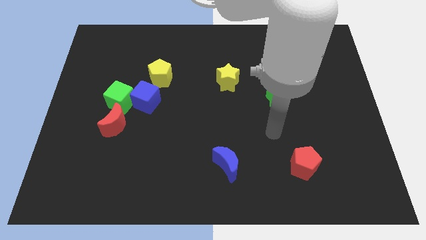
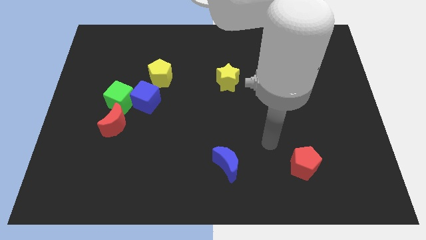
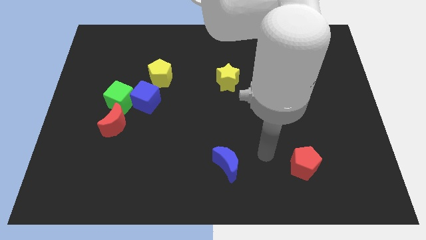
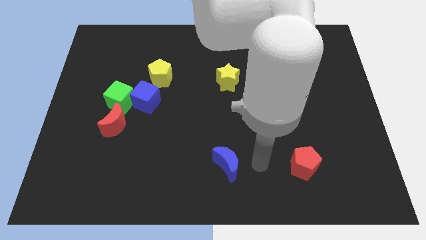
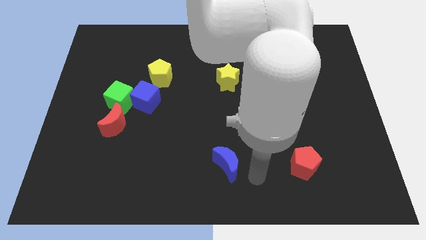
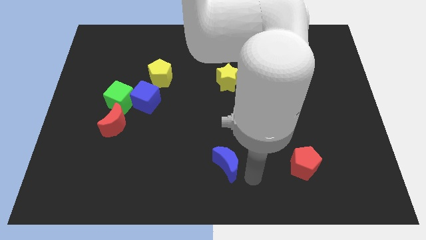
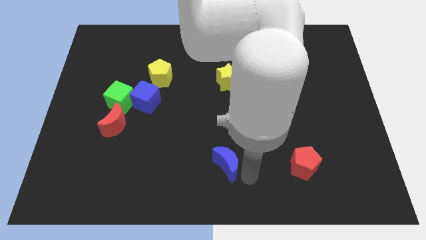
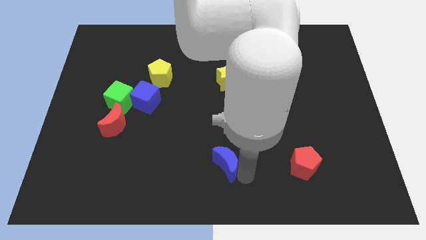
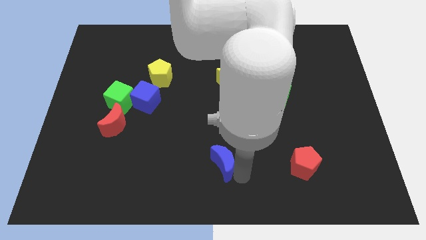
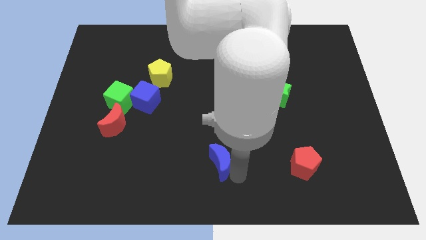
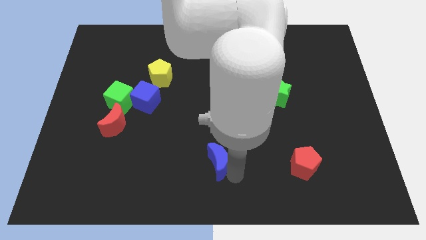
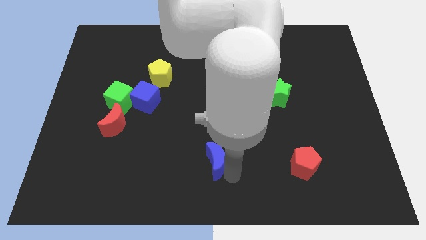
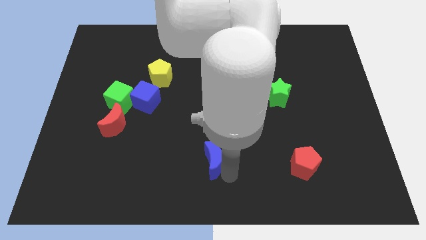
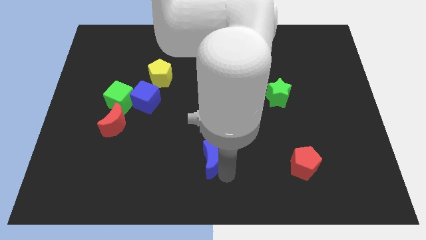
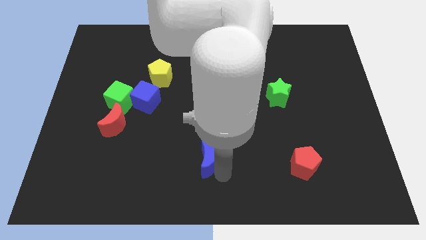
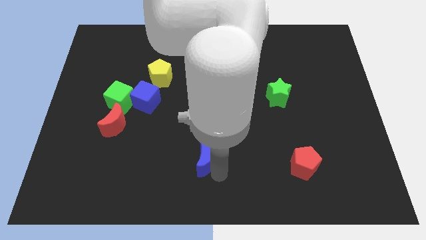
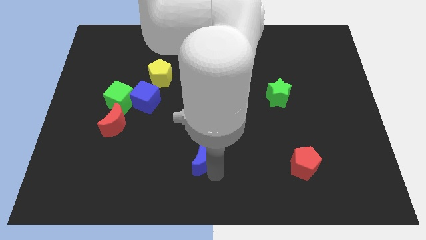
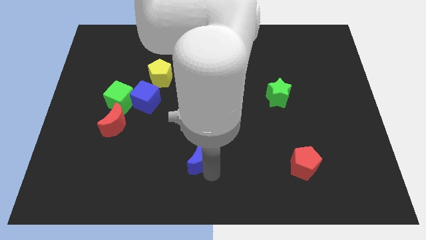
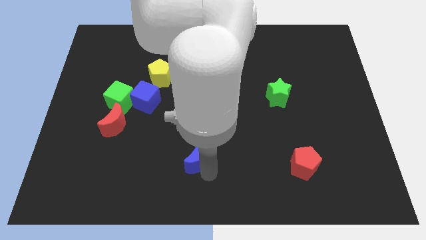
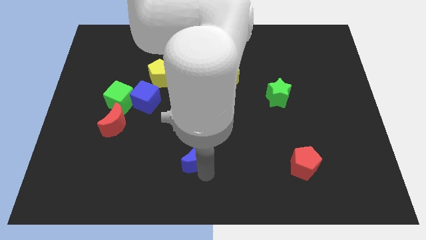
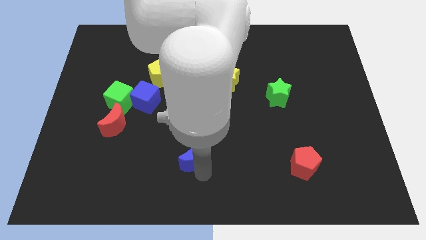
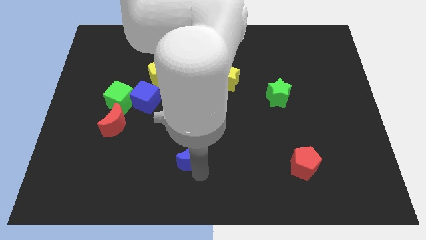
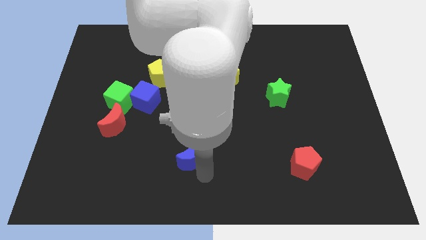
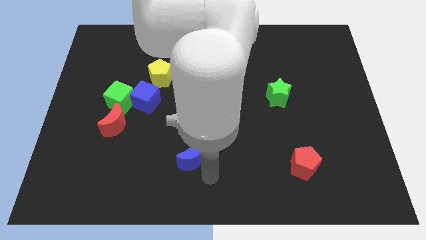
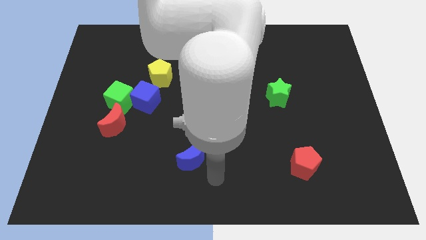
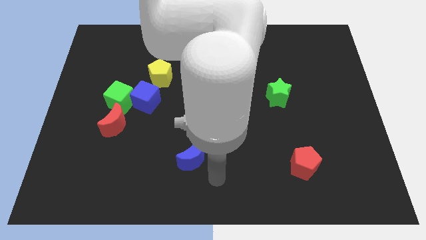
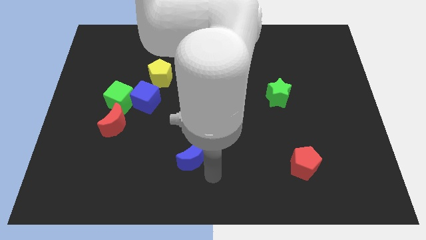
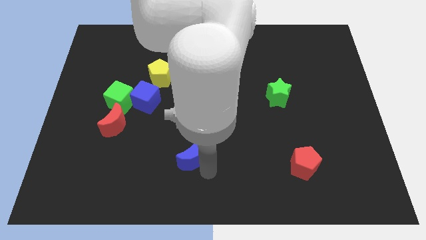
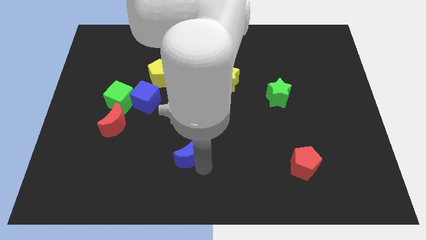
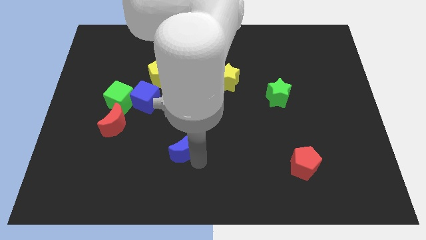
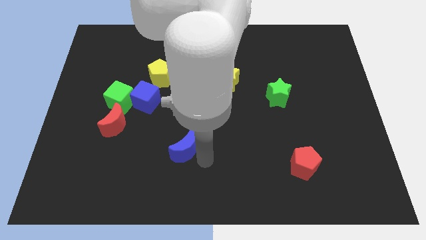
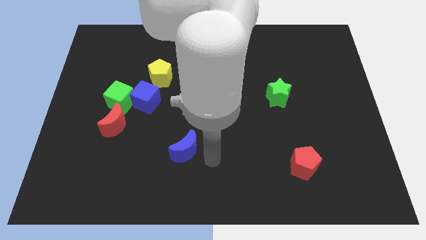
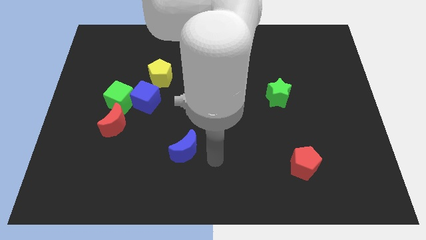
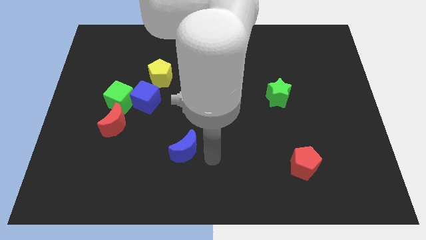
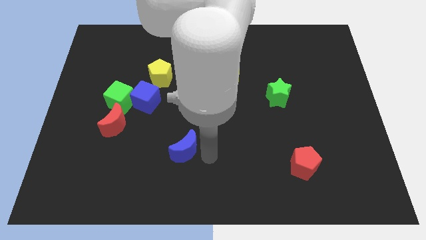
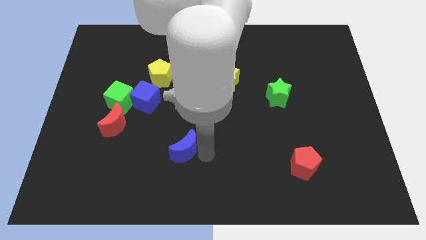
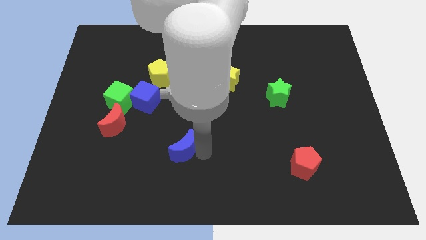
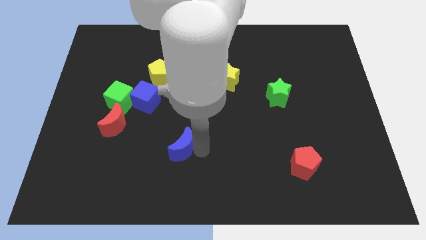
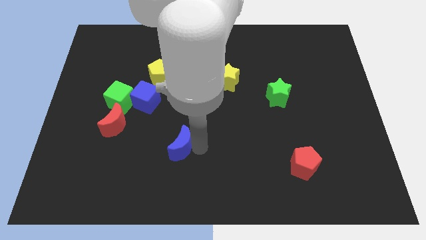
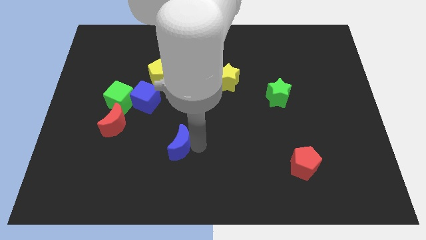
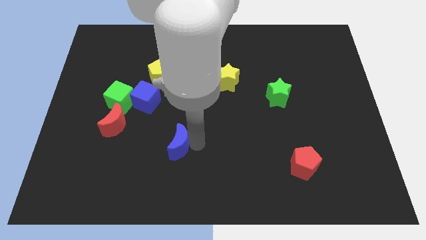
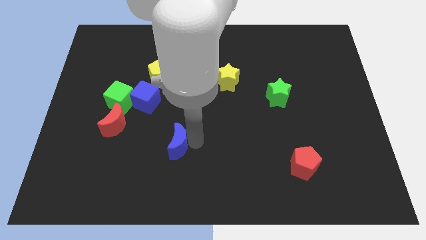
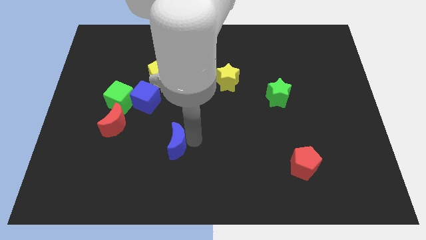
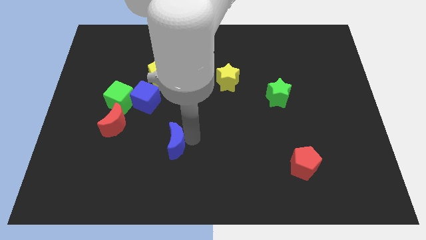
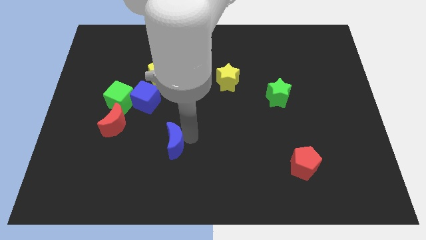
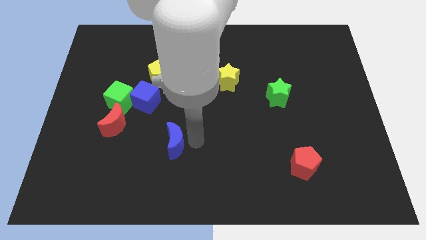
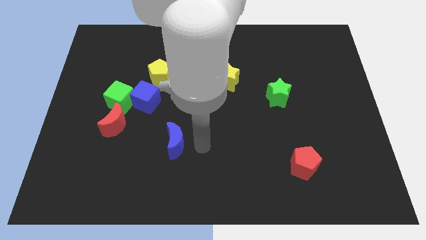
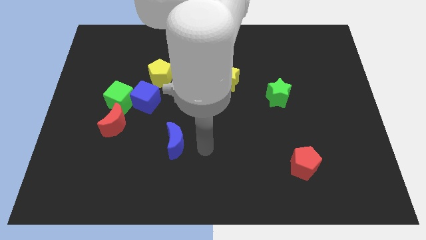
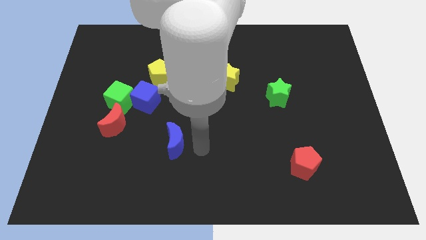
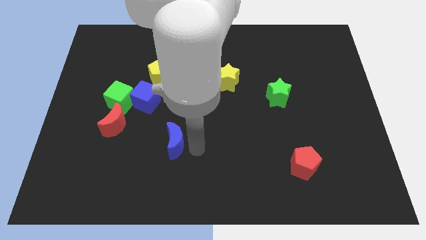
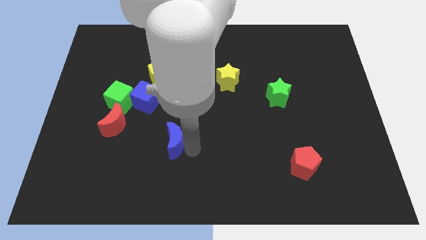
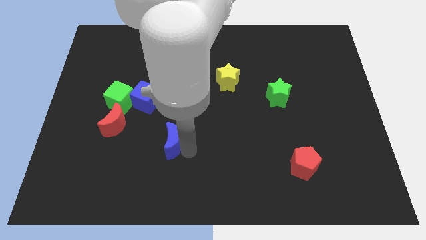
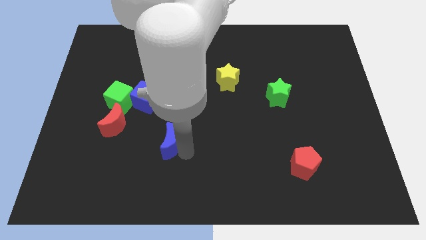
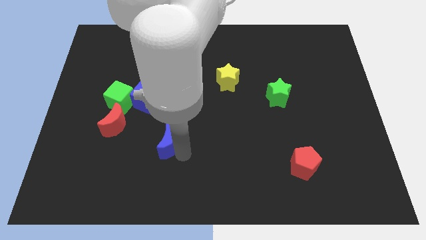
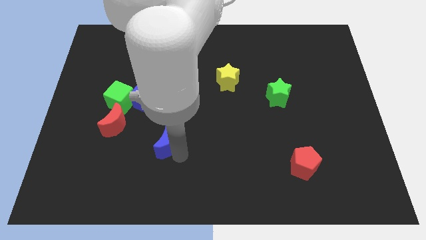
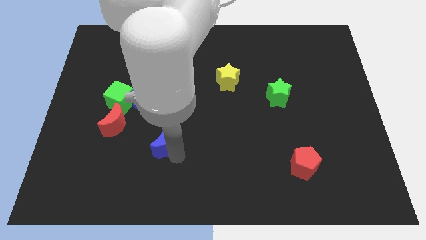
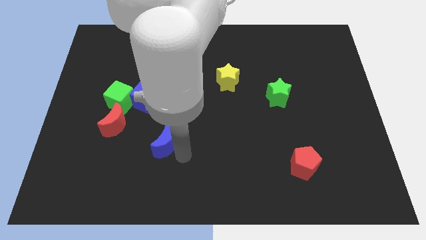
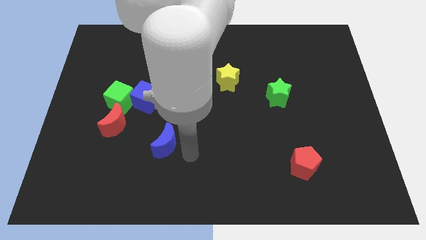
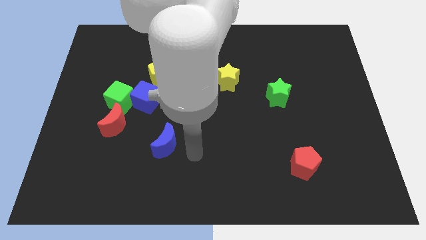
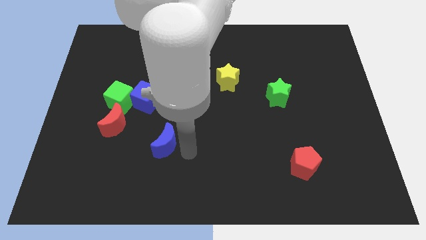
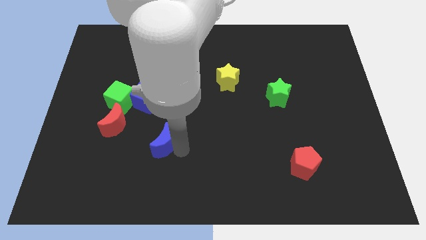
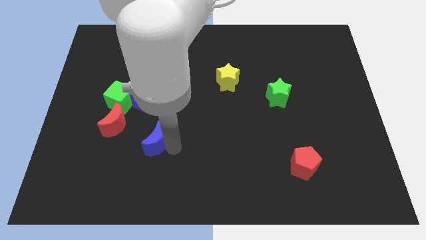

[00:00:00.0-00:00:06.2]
slide the blue moon below the blue cube
